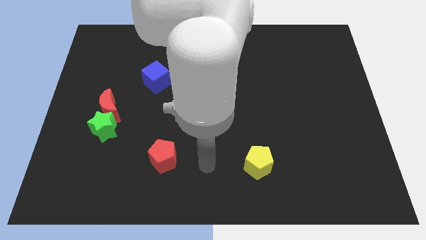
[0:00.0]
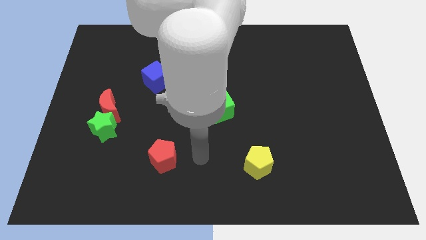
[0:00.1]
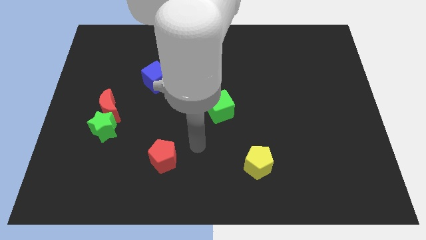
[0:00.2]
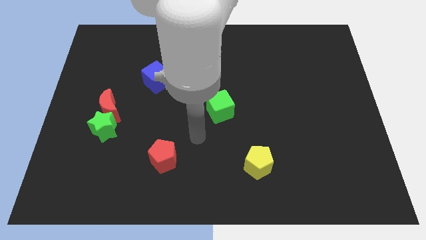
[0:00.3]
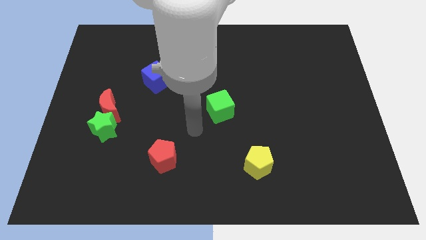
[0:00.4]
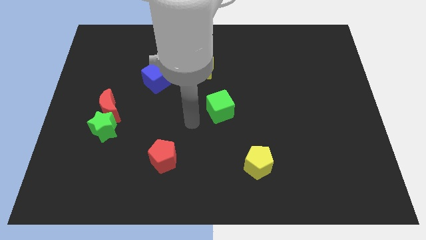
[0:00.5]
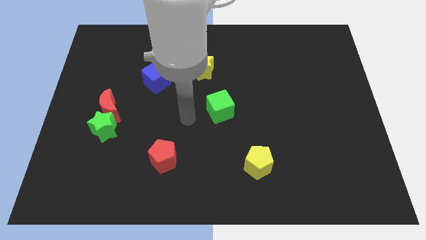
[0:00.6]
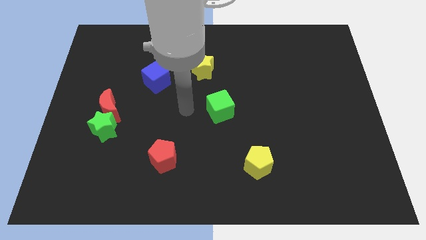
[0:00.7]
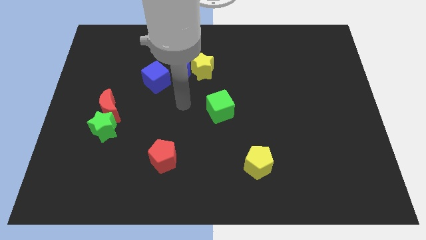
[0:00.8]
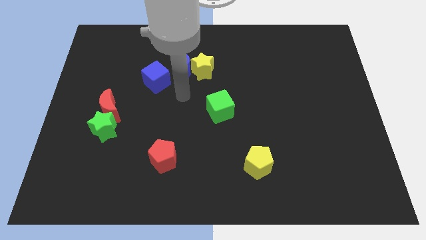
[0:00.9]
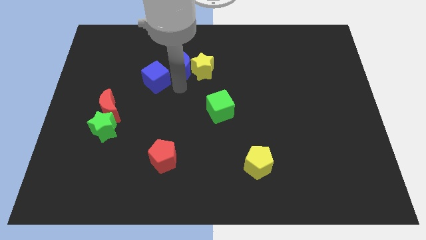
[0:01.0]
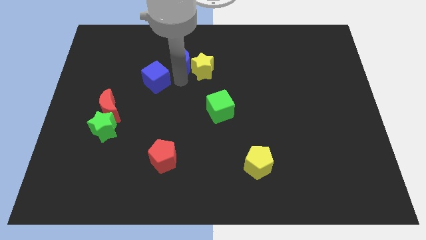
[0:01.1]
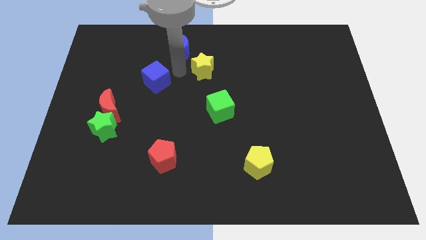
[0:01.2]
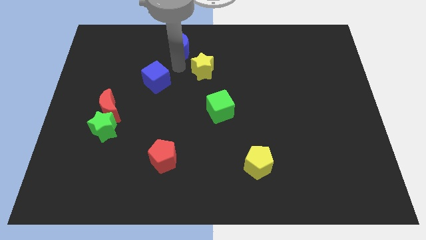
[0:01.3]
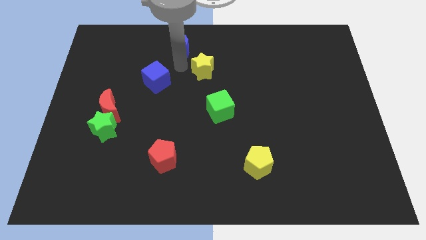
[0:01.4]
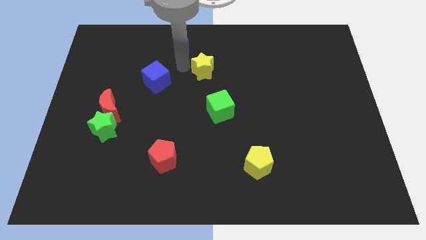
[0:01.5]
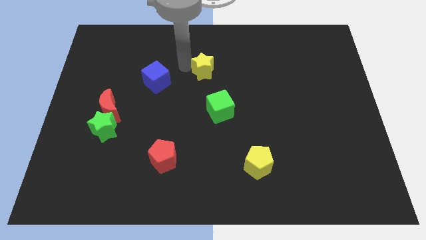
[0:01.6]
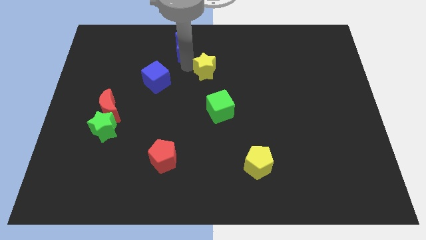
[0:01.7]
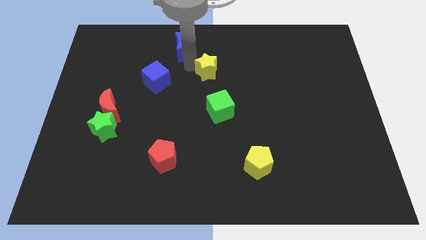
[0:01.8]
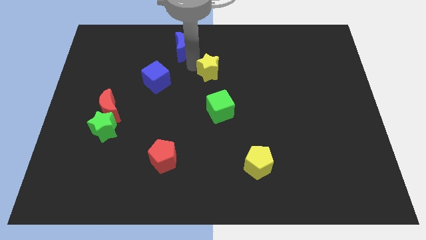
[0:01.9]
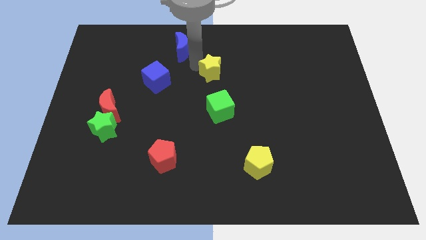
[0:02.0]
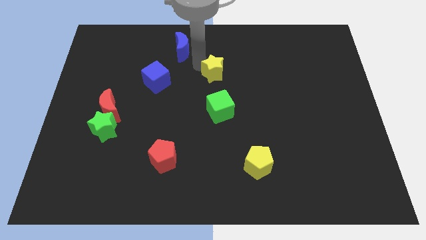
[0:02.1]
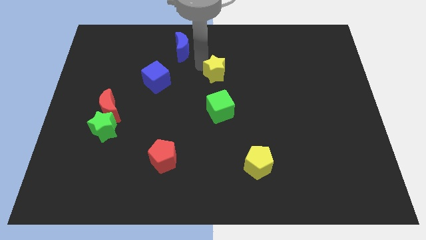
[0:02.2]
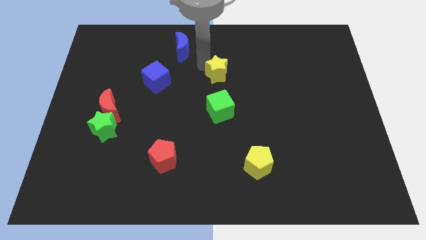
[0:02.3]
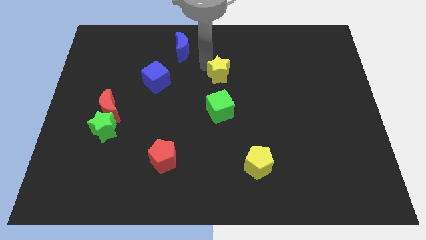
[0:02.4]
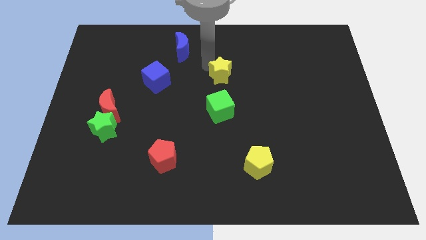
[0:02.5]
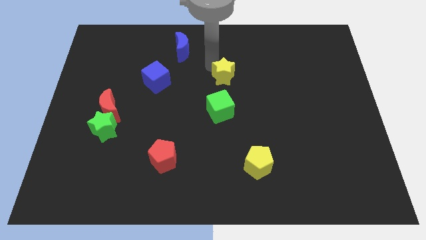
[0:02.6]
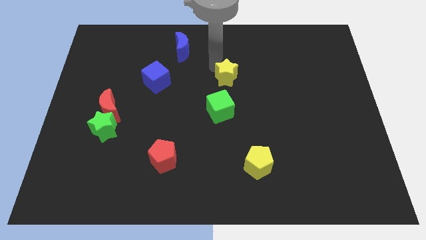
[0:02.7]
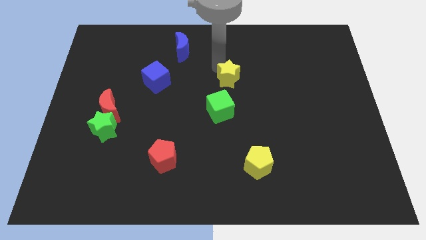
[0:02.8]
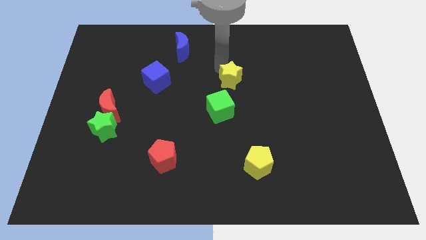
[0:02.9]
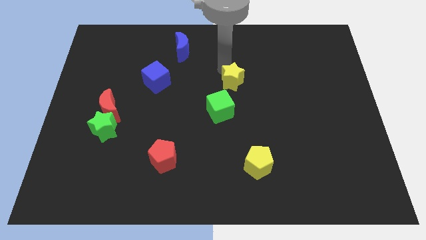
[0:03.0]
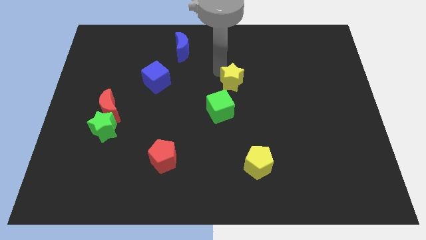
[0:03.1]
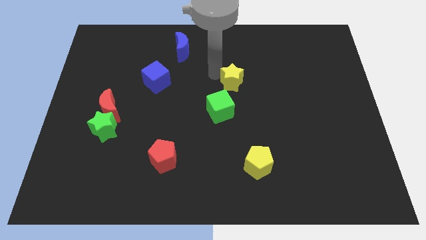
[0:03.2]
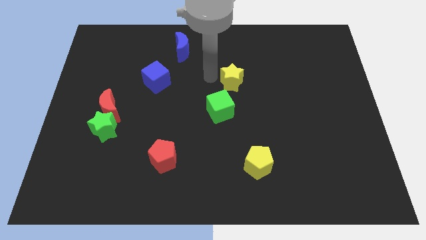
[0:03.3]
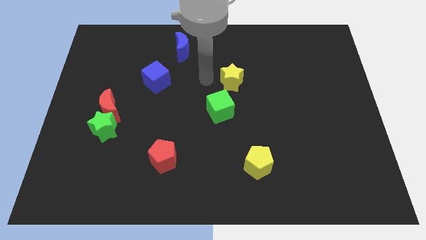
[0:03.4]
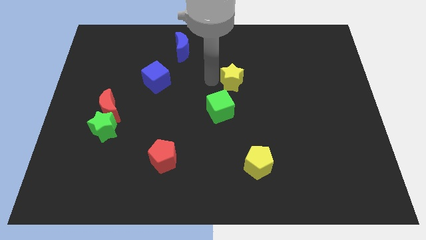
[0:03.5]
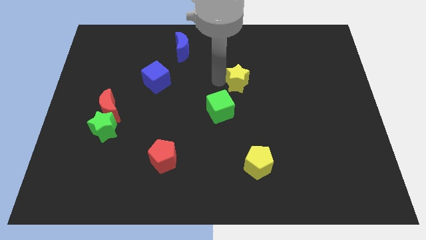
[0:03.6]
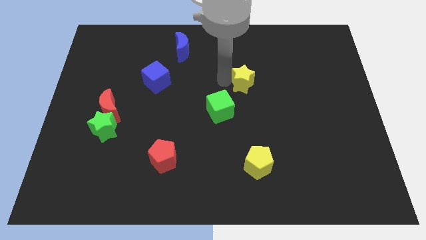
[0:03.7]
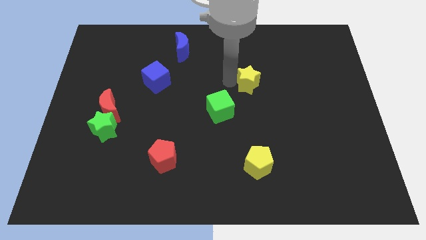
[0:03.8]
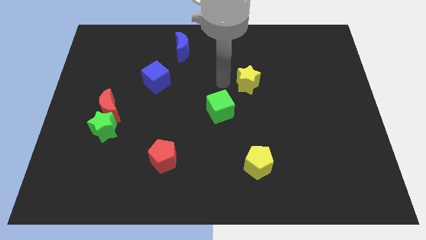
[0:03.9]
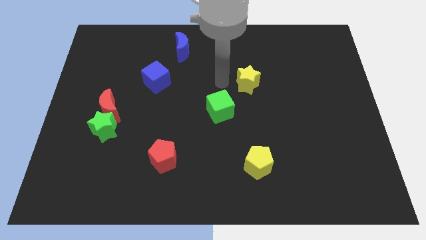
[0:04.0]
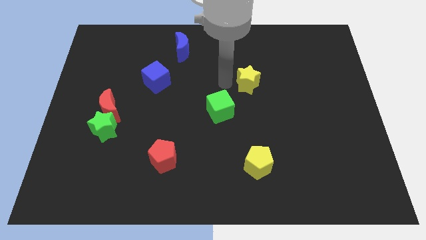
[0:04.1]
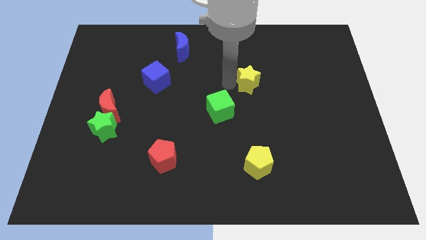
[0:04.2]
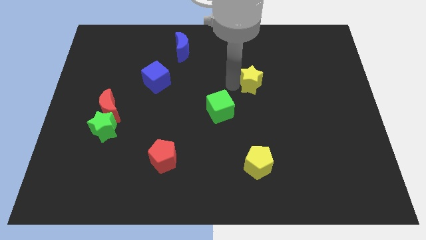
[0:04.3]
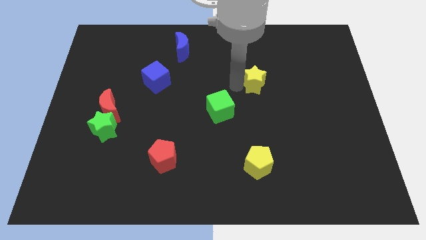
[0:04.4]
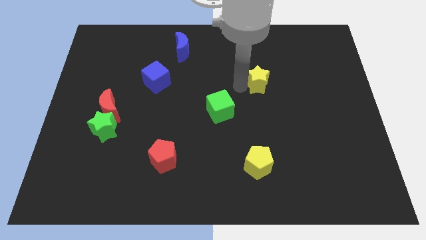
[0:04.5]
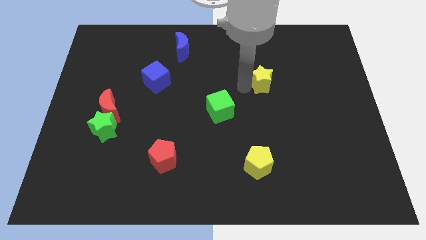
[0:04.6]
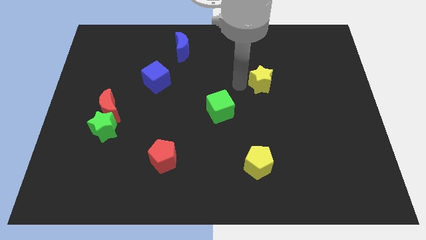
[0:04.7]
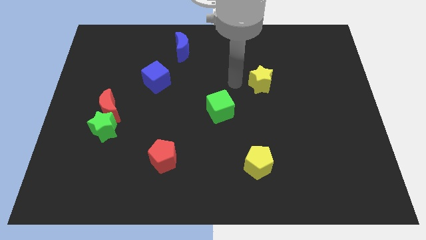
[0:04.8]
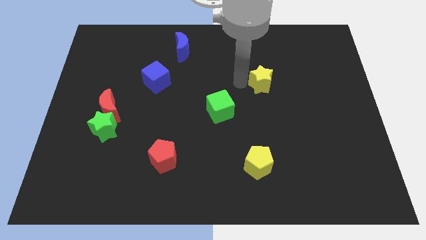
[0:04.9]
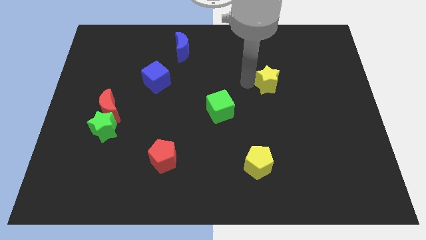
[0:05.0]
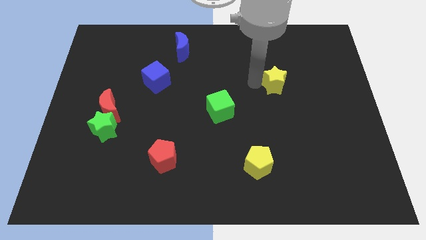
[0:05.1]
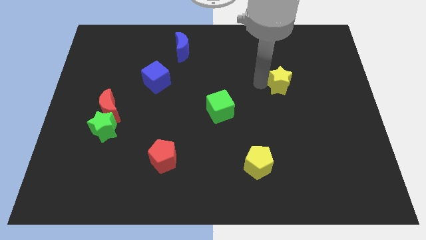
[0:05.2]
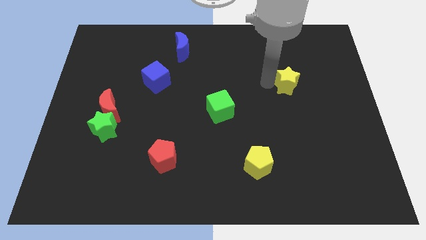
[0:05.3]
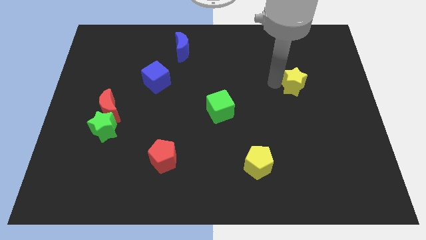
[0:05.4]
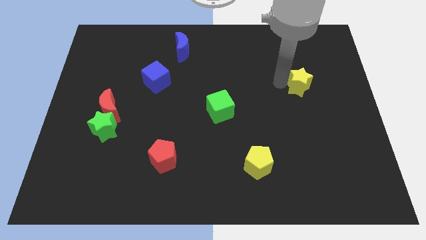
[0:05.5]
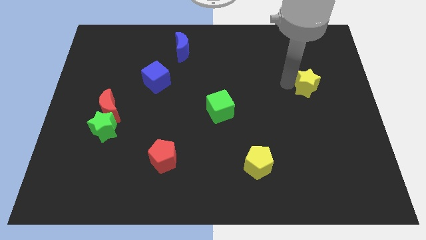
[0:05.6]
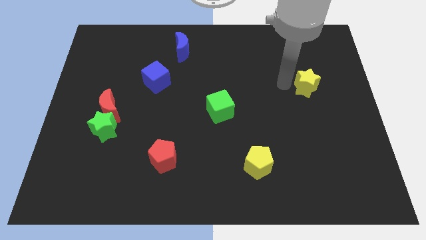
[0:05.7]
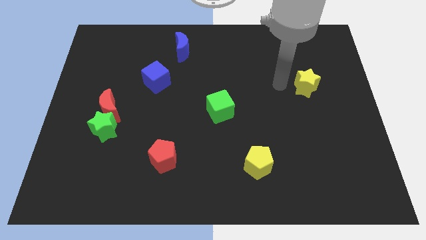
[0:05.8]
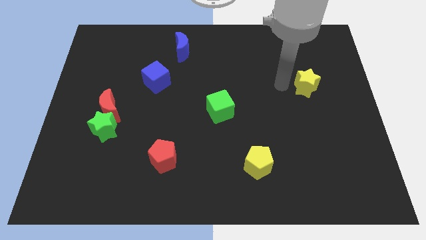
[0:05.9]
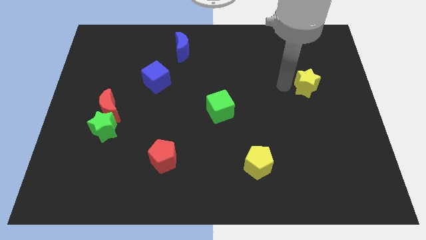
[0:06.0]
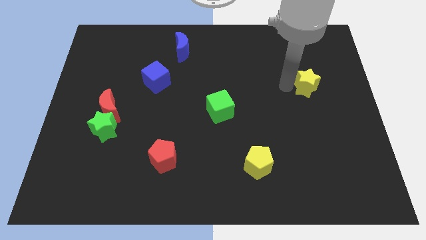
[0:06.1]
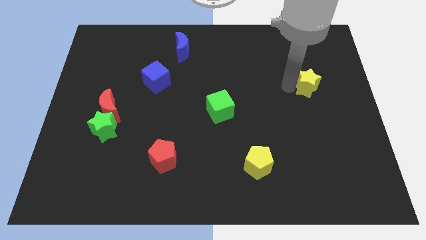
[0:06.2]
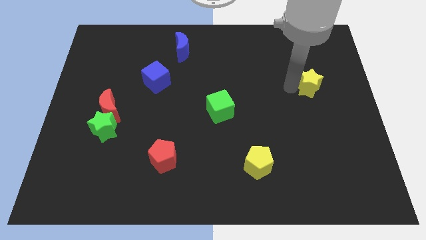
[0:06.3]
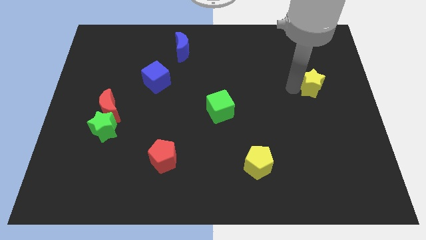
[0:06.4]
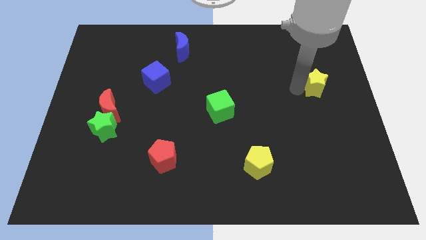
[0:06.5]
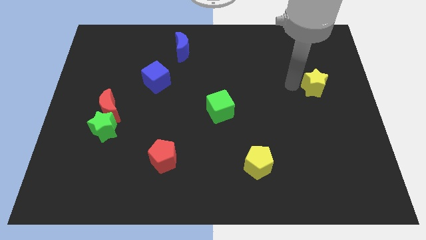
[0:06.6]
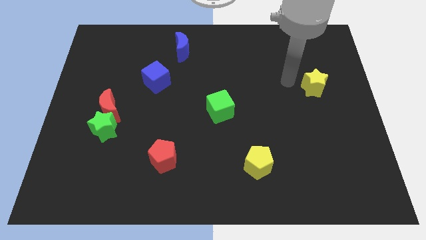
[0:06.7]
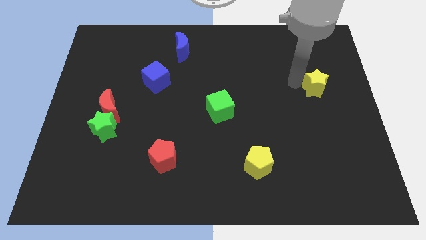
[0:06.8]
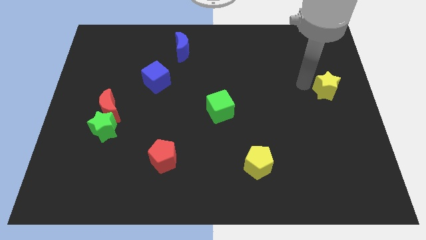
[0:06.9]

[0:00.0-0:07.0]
slide the yellow star to the center right
